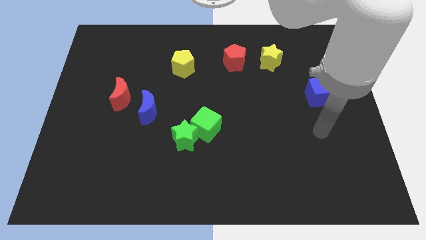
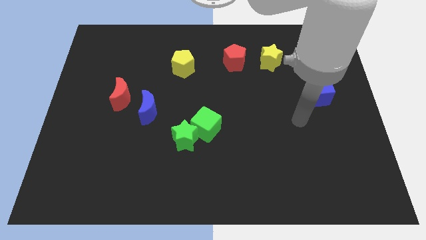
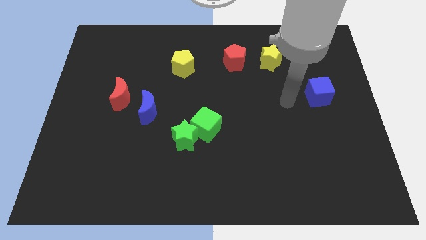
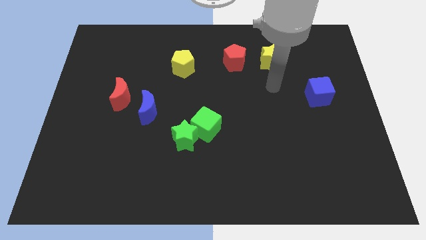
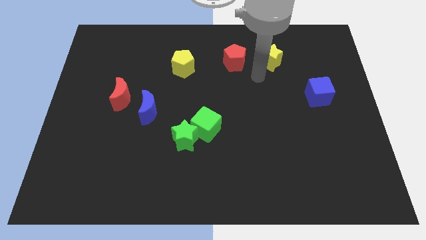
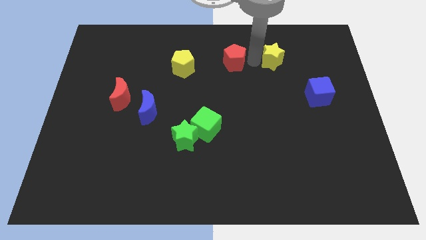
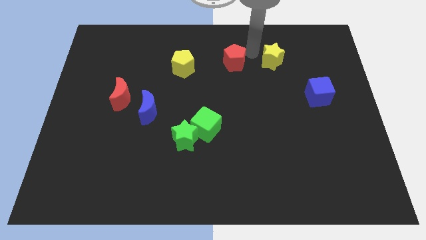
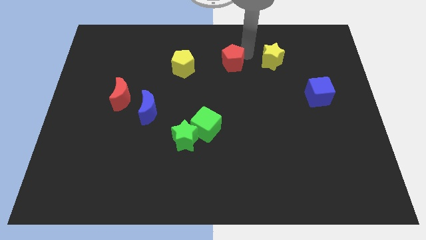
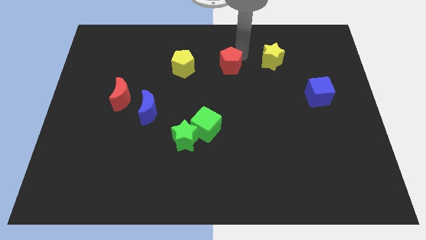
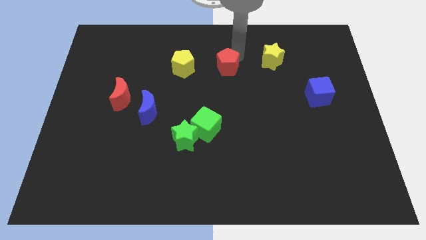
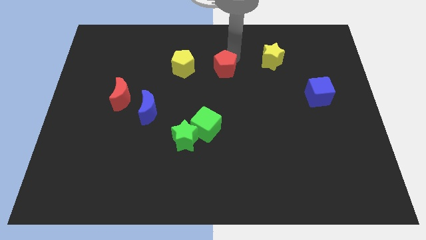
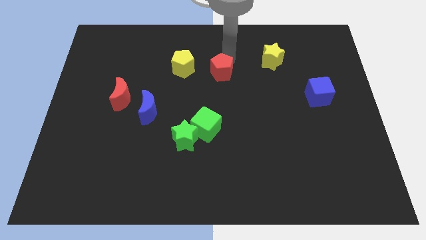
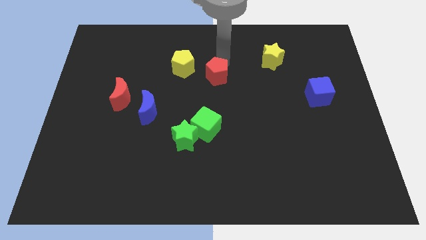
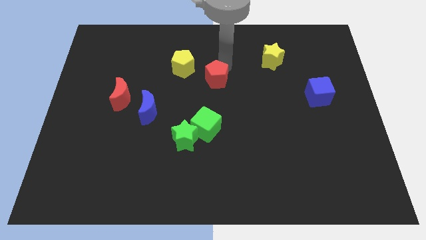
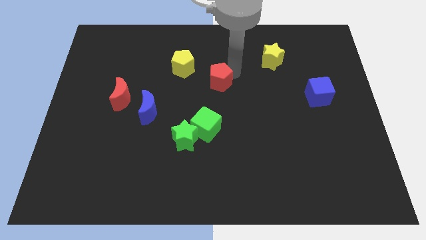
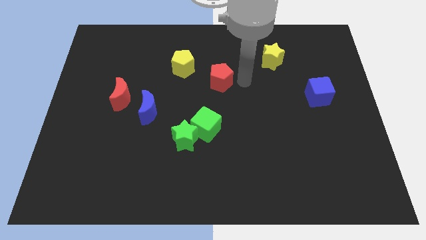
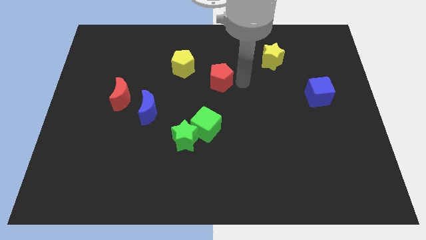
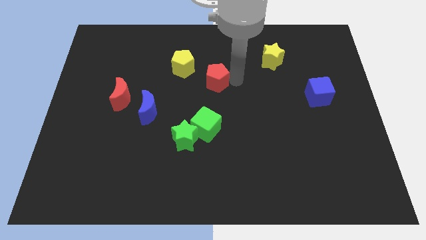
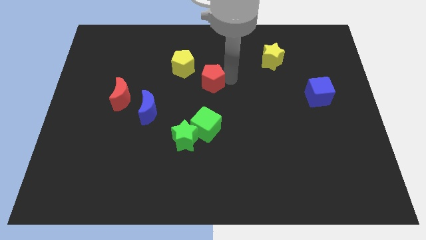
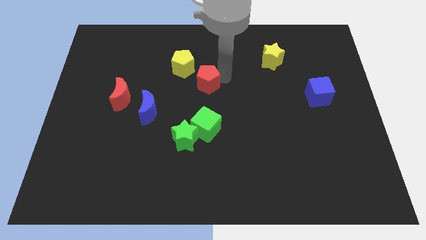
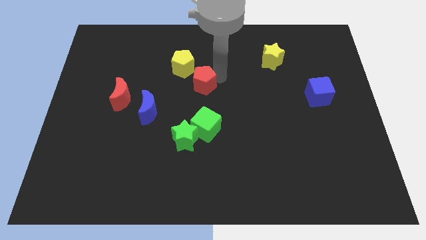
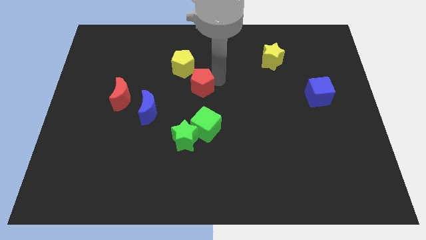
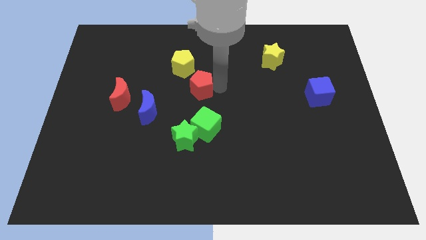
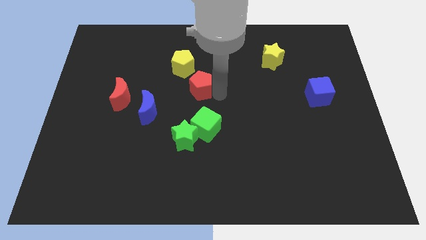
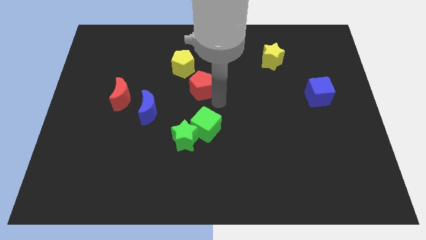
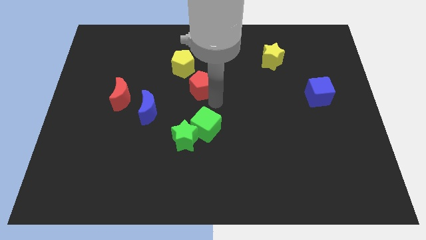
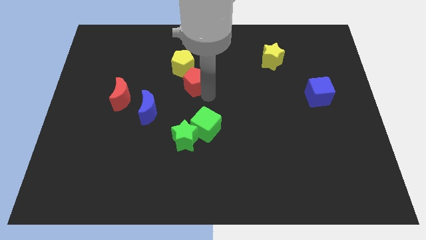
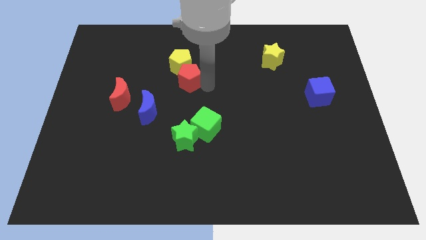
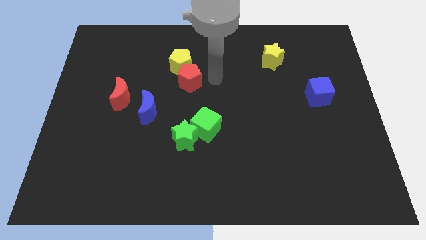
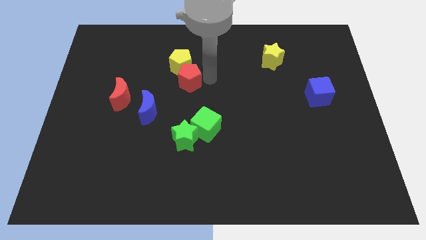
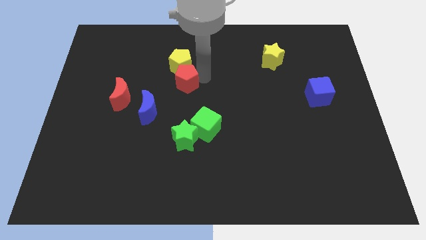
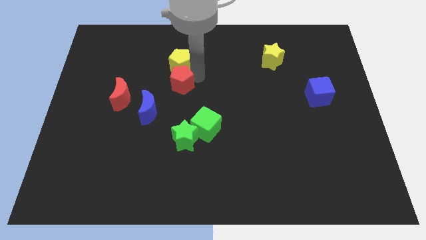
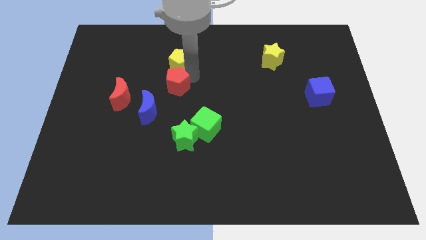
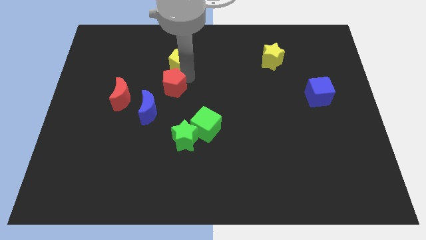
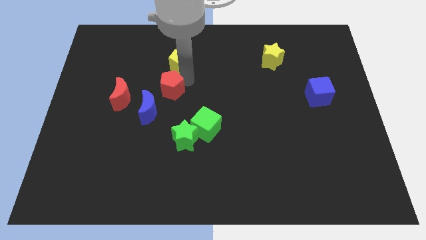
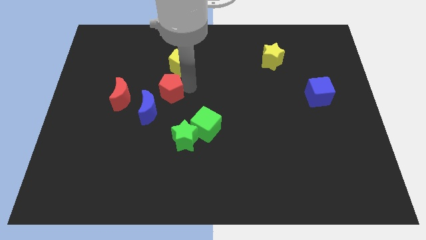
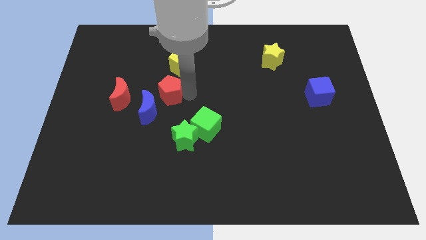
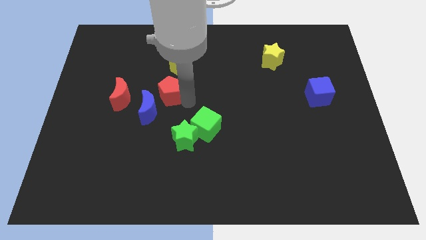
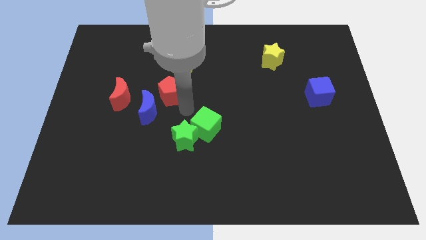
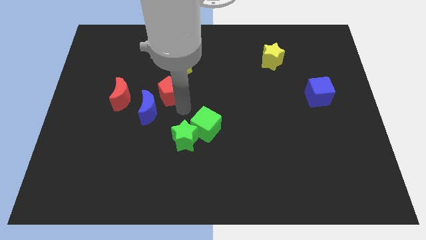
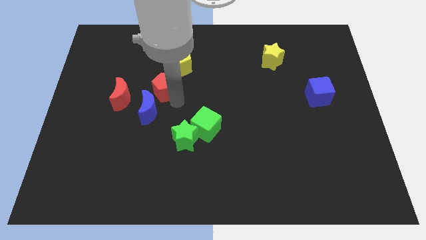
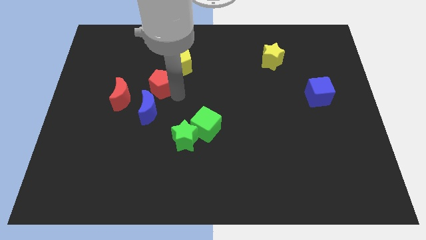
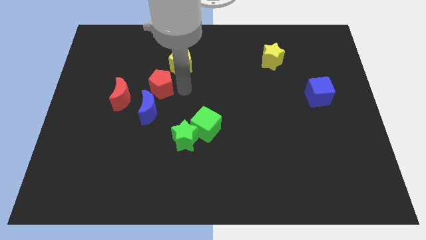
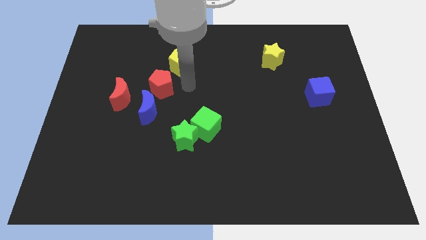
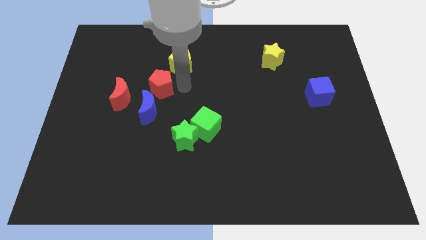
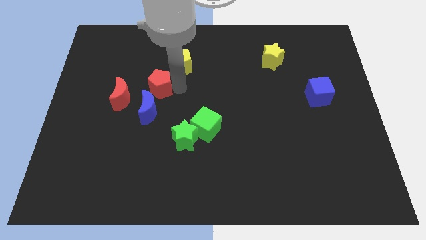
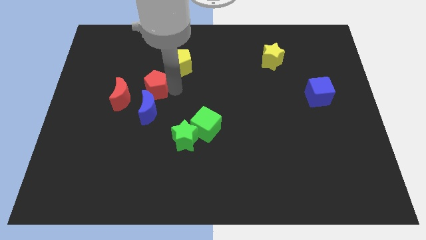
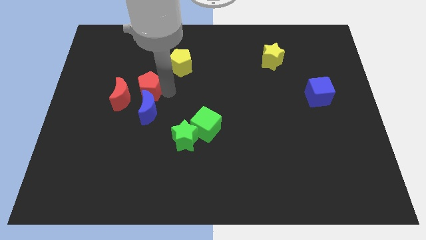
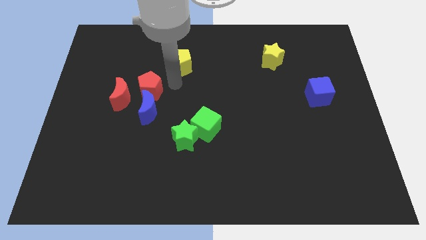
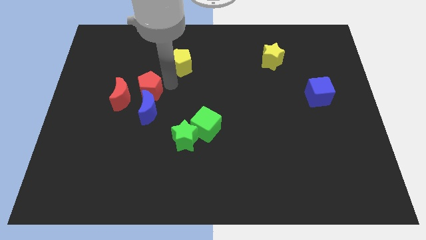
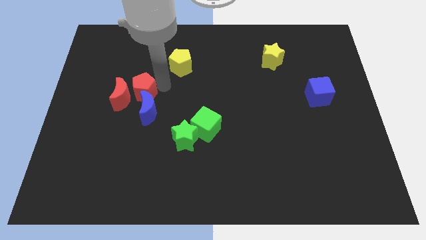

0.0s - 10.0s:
slide the red pentagon next to the red moon

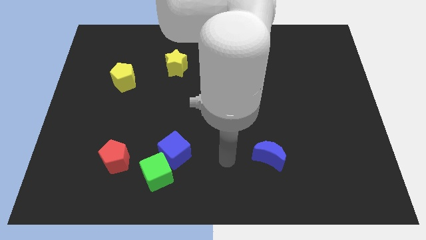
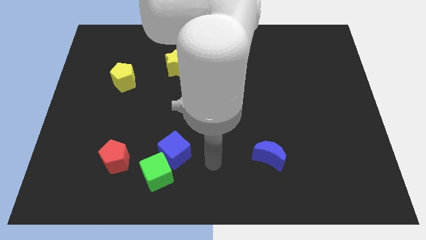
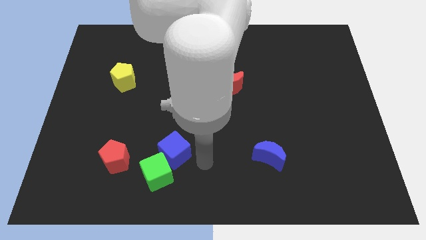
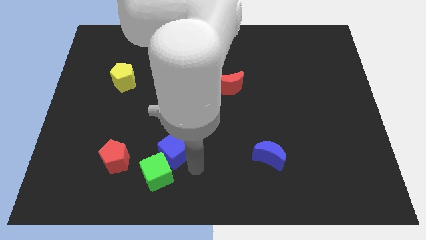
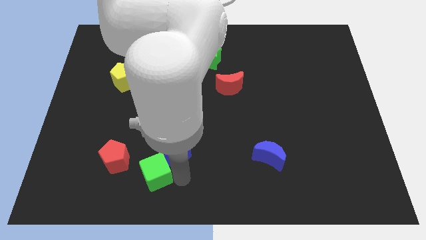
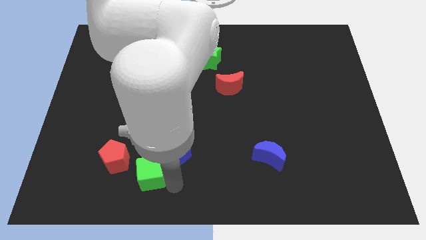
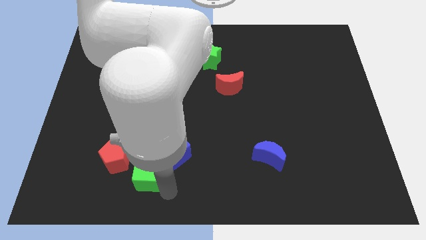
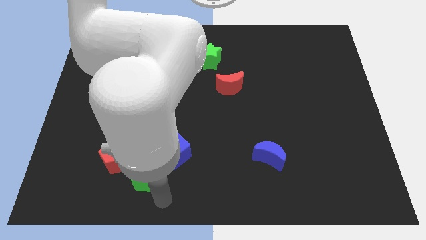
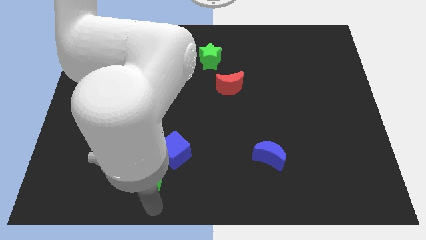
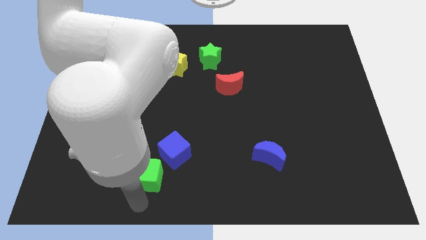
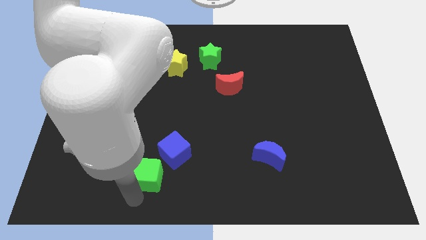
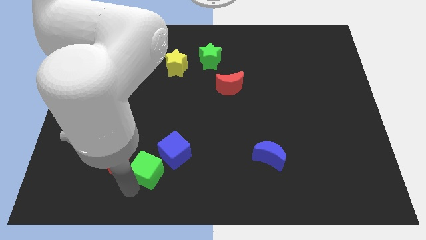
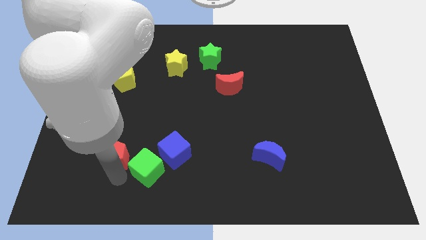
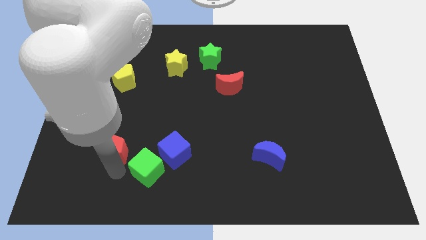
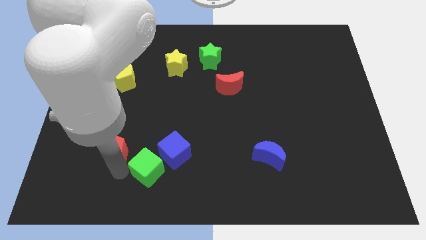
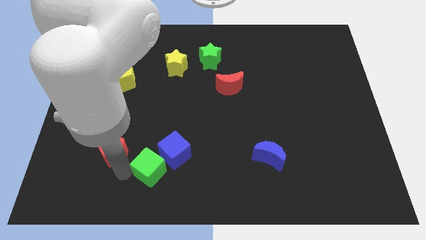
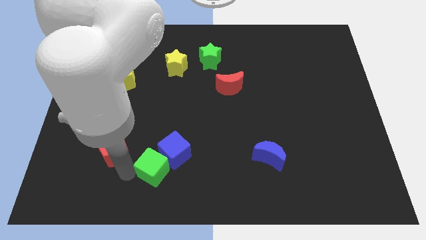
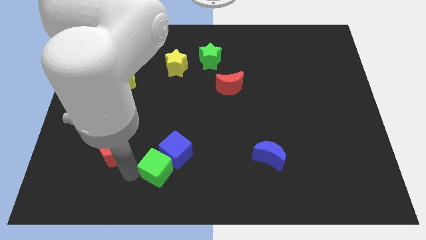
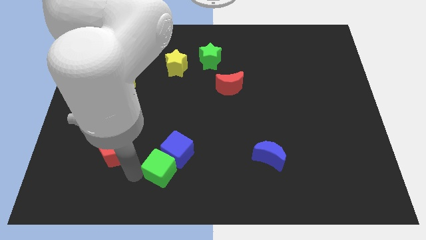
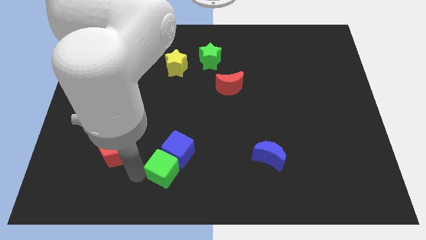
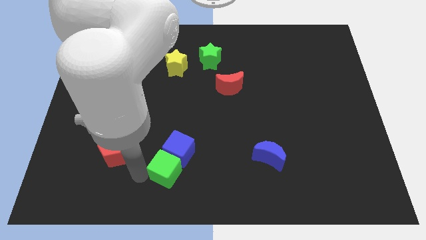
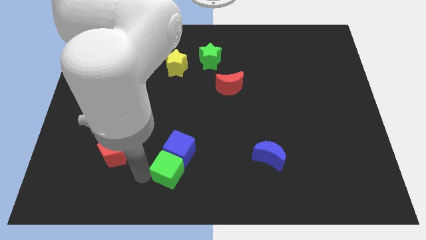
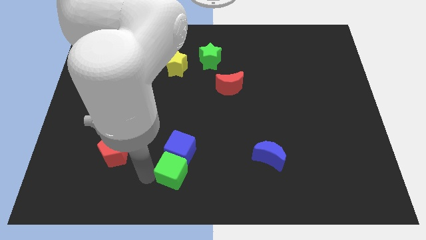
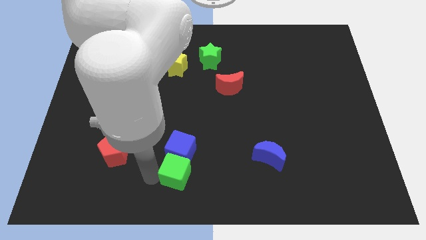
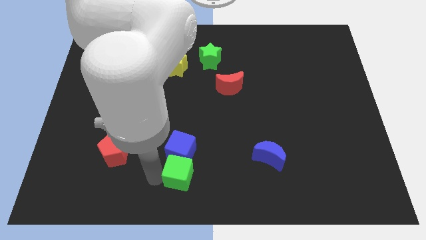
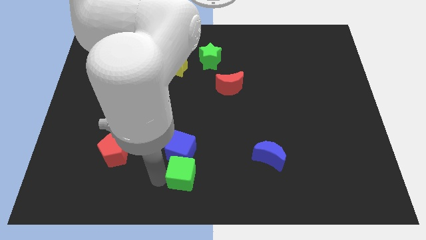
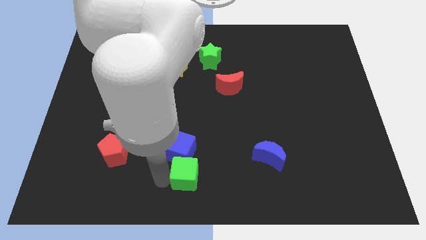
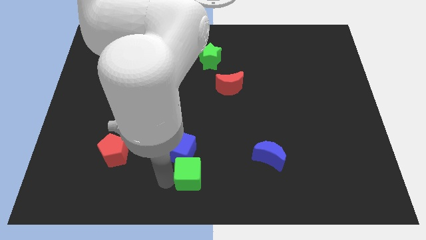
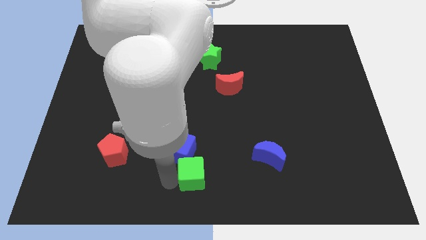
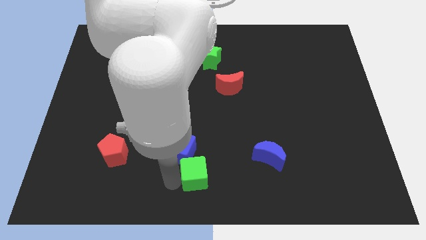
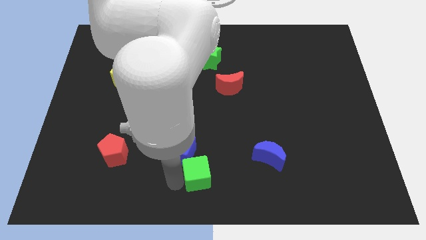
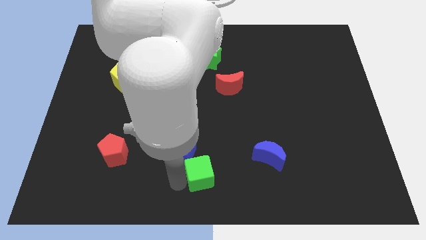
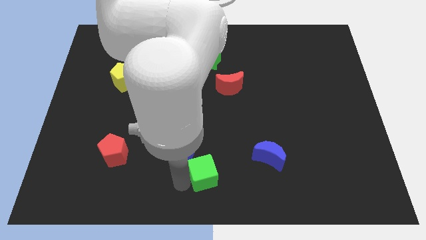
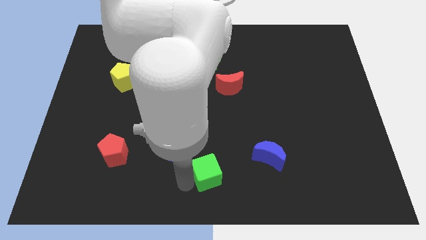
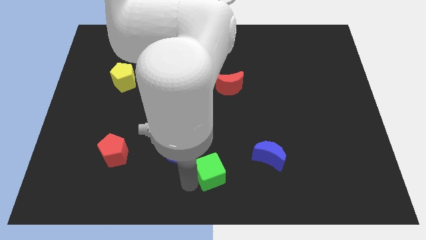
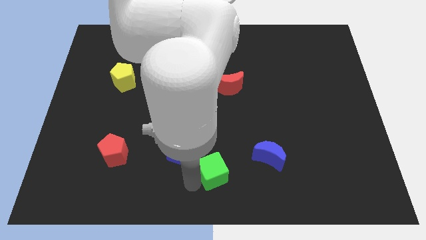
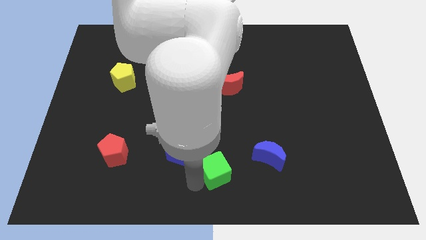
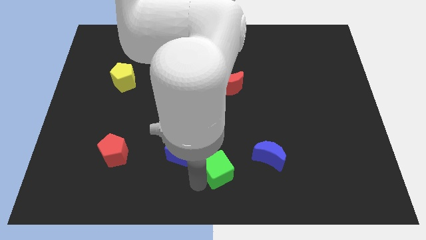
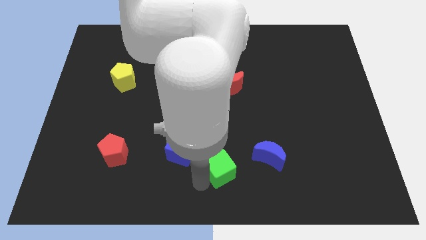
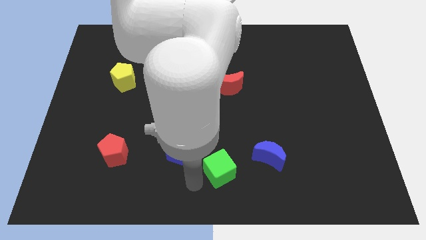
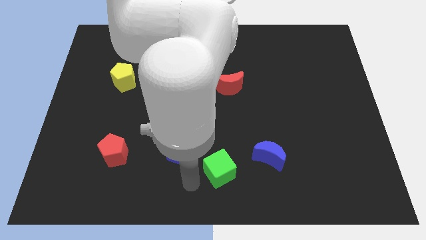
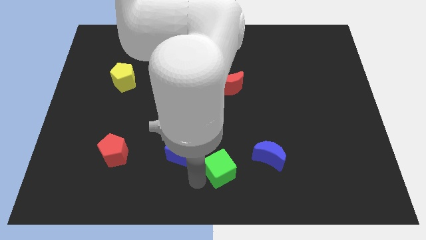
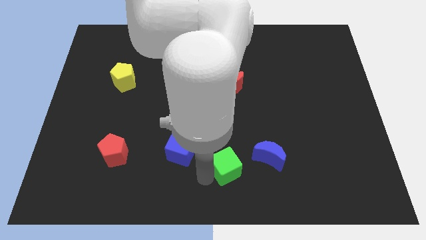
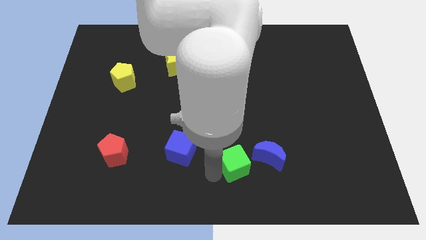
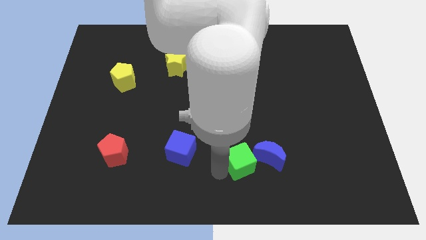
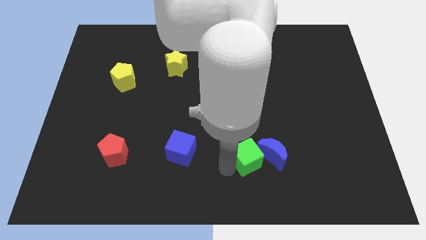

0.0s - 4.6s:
put the green cube close to the blue moon
